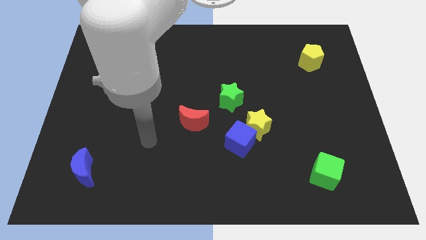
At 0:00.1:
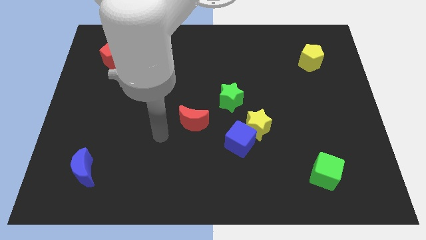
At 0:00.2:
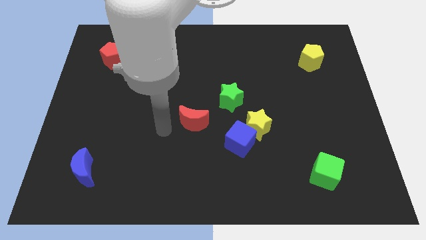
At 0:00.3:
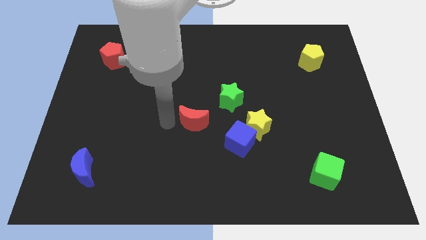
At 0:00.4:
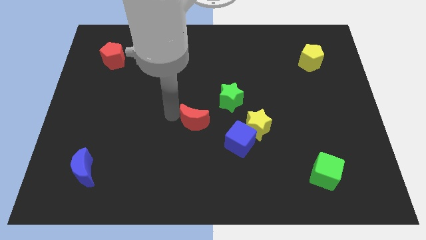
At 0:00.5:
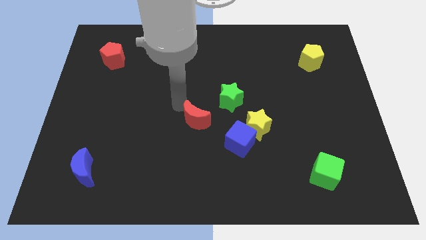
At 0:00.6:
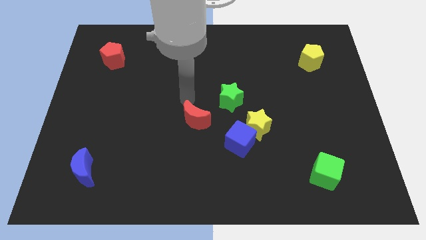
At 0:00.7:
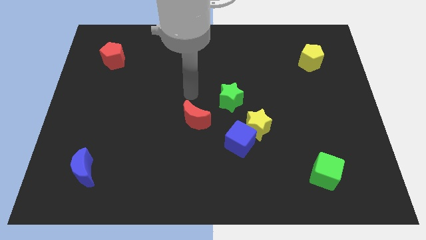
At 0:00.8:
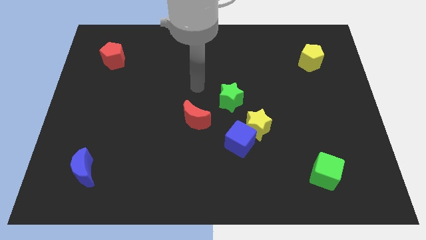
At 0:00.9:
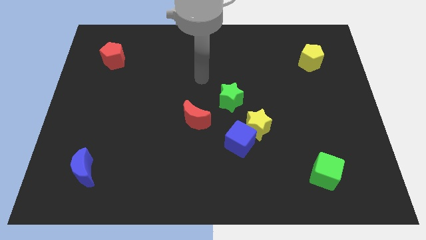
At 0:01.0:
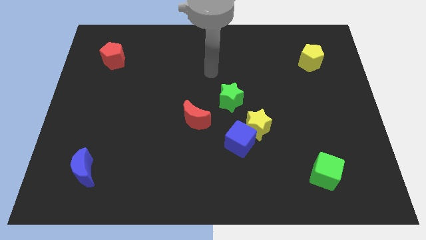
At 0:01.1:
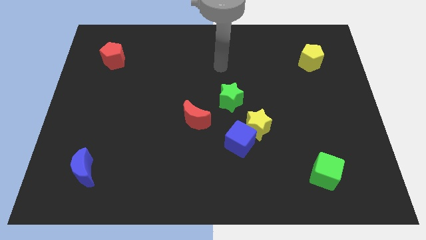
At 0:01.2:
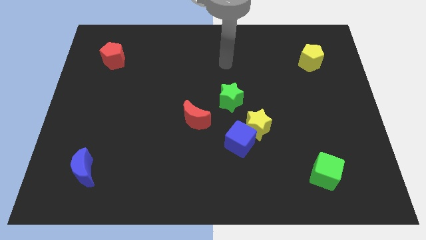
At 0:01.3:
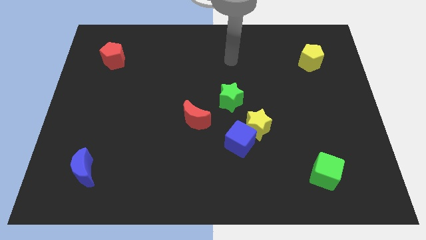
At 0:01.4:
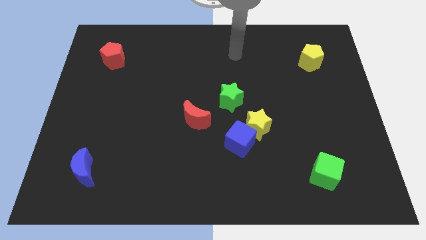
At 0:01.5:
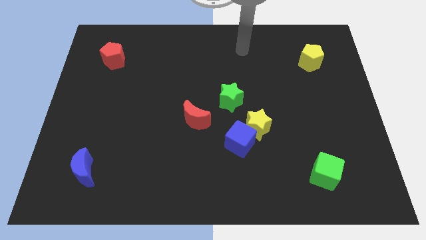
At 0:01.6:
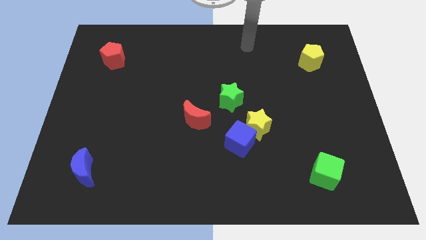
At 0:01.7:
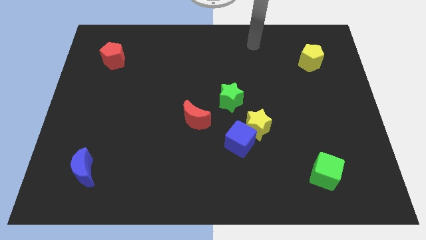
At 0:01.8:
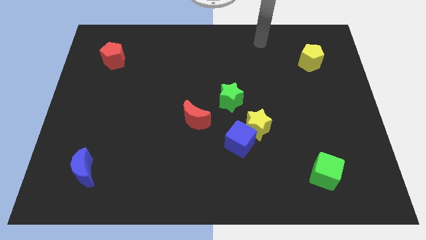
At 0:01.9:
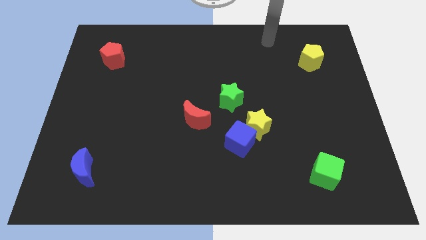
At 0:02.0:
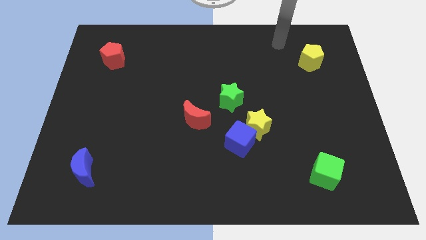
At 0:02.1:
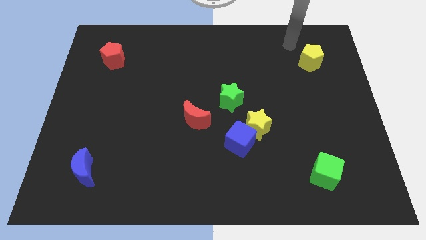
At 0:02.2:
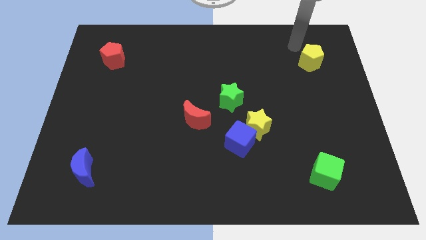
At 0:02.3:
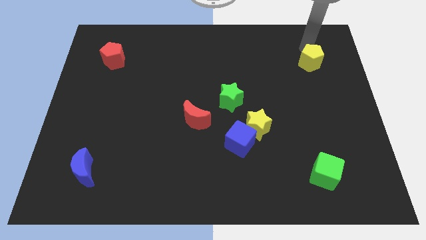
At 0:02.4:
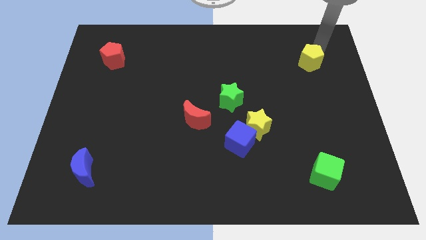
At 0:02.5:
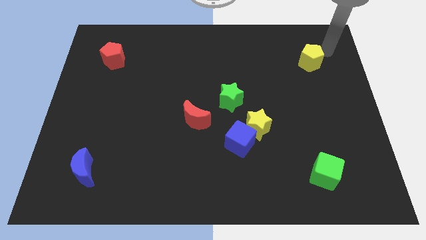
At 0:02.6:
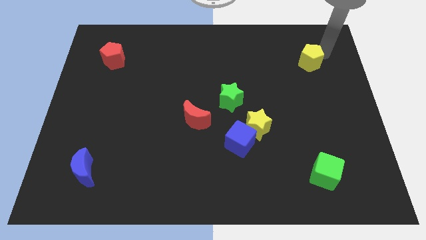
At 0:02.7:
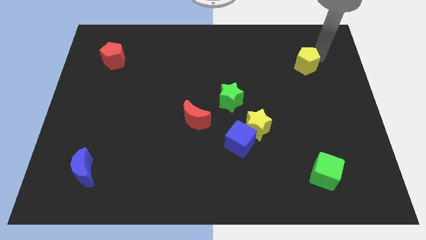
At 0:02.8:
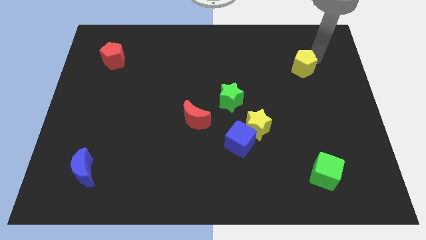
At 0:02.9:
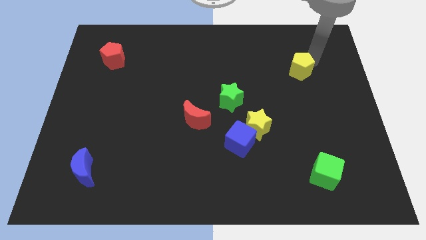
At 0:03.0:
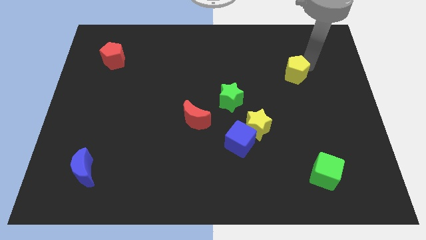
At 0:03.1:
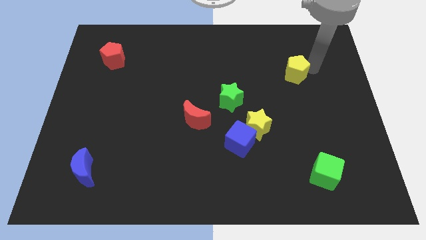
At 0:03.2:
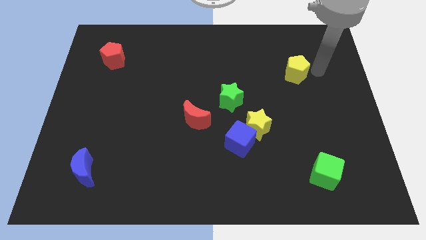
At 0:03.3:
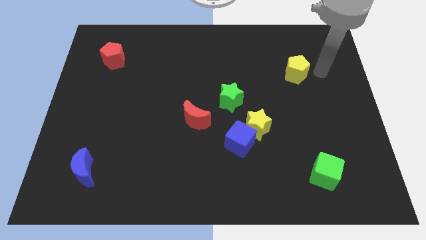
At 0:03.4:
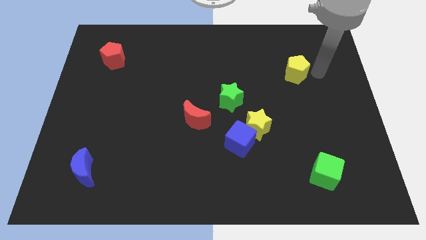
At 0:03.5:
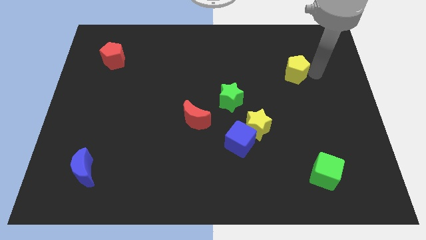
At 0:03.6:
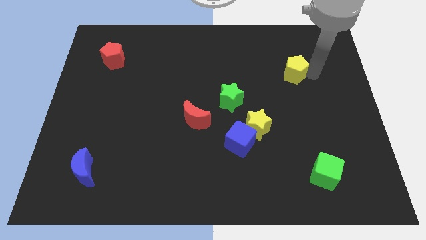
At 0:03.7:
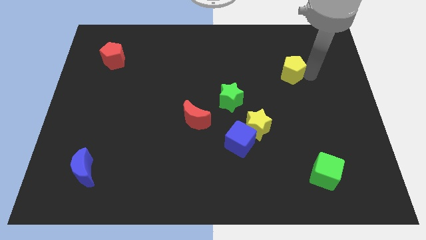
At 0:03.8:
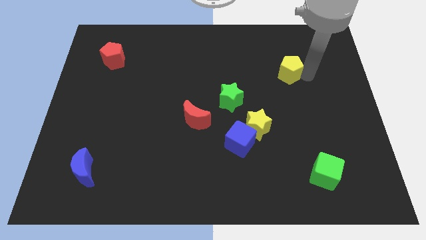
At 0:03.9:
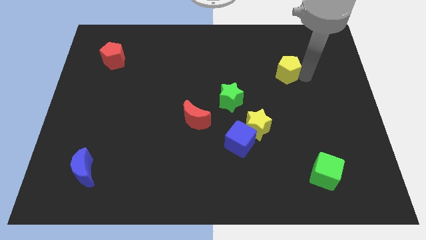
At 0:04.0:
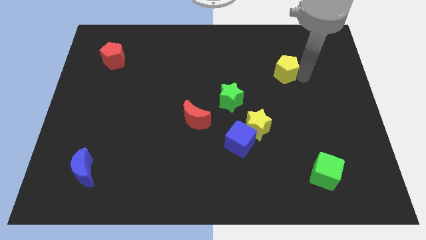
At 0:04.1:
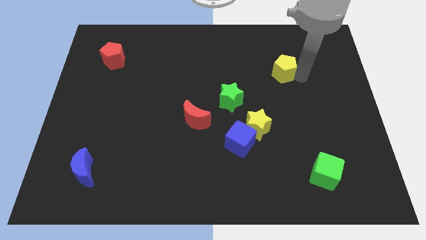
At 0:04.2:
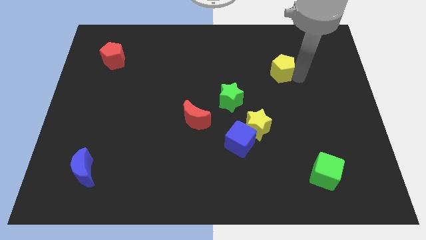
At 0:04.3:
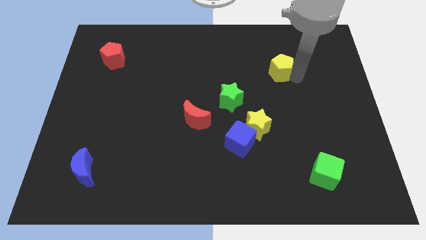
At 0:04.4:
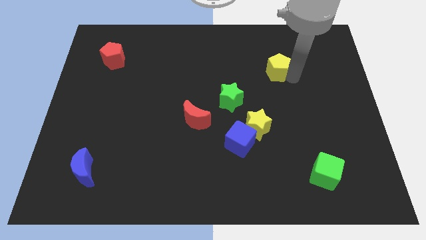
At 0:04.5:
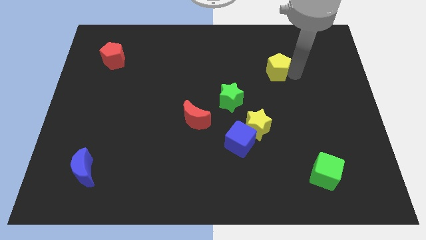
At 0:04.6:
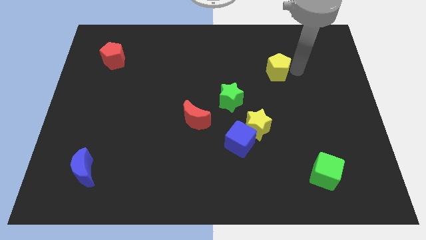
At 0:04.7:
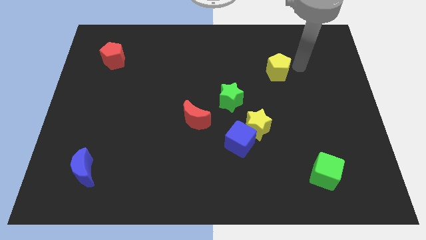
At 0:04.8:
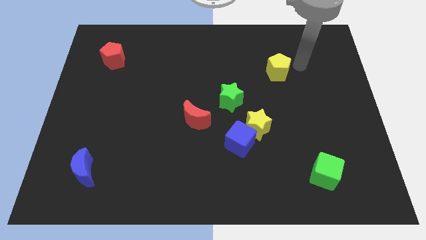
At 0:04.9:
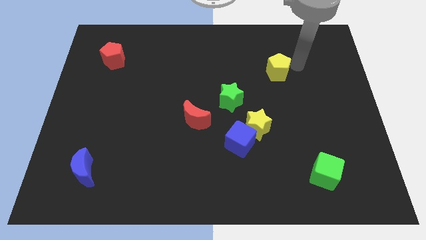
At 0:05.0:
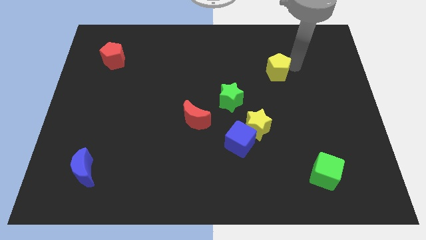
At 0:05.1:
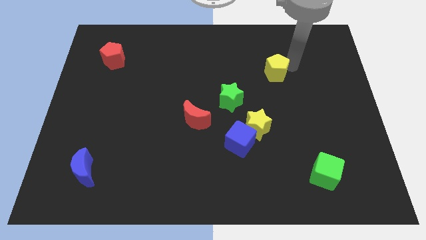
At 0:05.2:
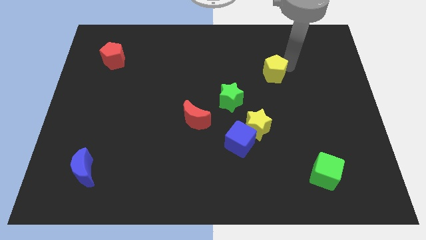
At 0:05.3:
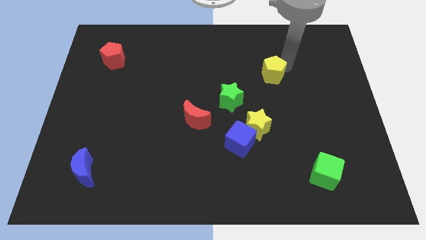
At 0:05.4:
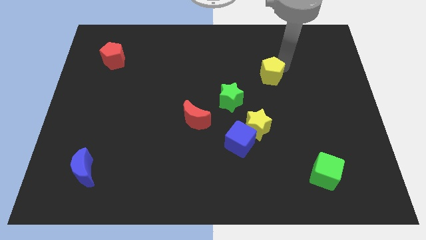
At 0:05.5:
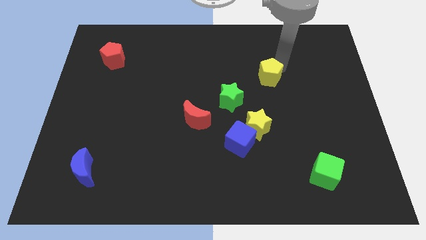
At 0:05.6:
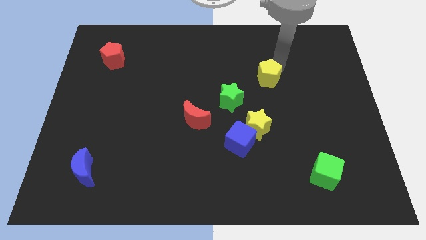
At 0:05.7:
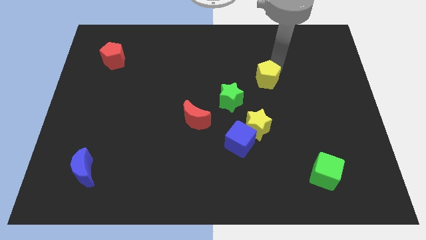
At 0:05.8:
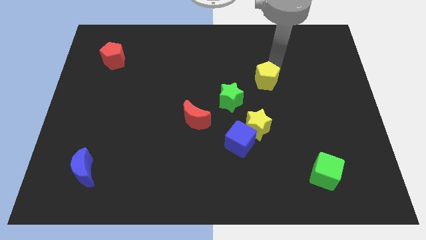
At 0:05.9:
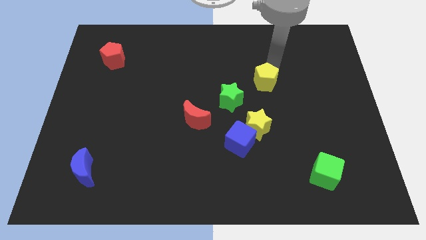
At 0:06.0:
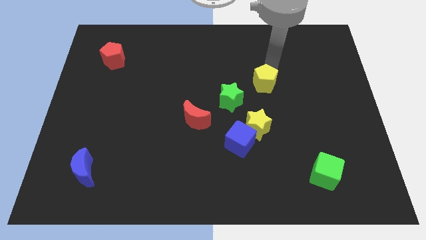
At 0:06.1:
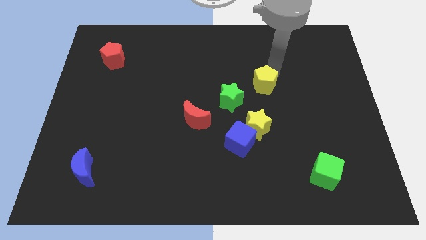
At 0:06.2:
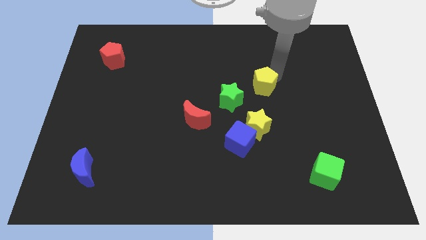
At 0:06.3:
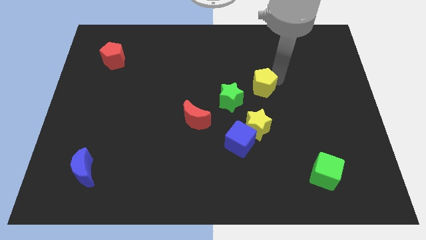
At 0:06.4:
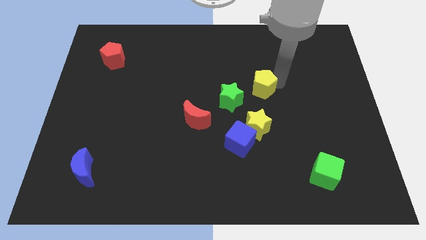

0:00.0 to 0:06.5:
slide the yellow pentagon to the center of the board

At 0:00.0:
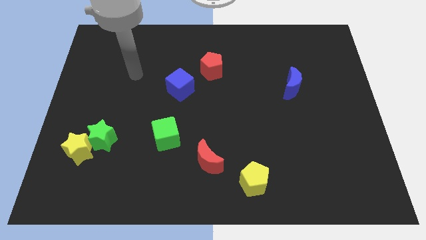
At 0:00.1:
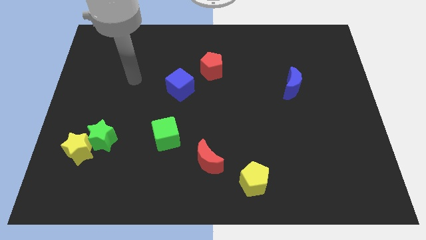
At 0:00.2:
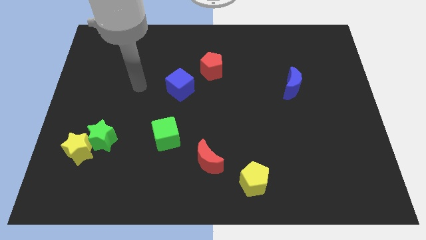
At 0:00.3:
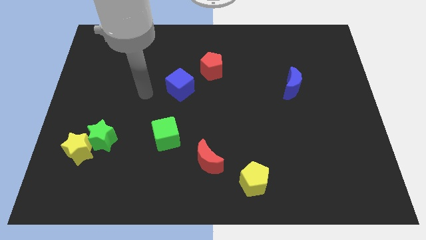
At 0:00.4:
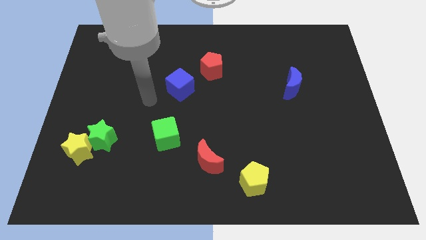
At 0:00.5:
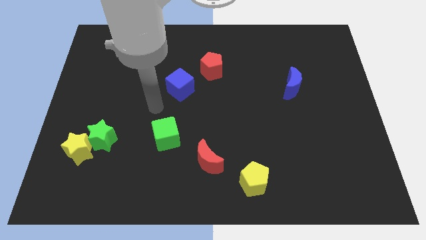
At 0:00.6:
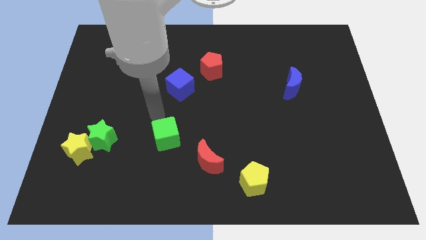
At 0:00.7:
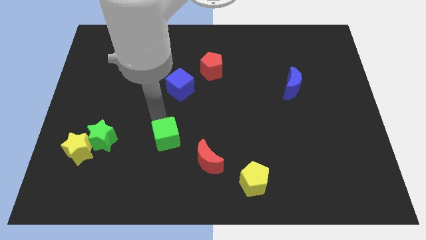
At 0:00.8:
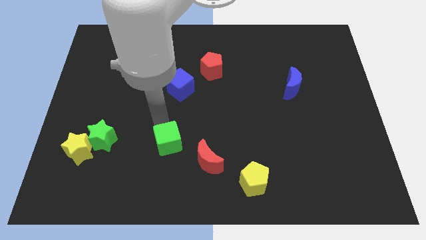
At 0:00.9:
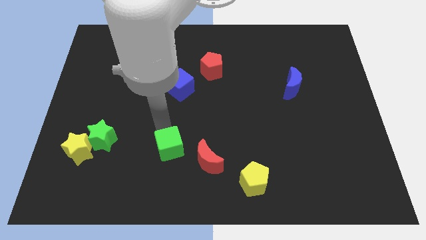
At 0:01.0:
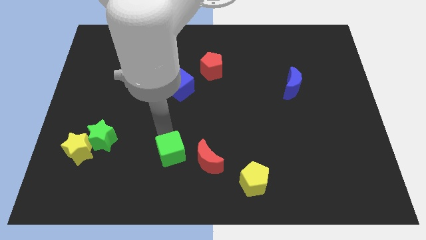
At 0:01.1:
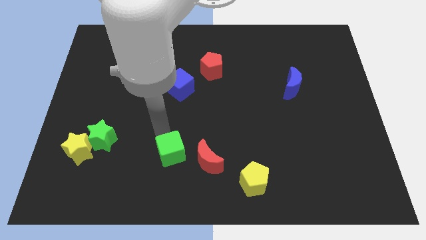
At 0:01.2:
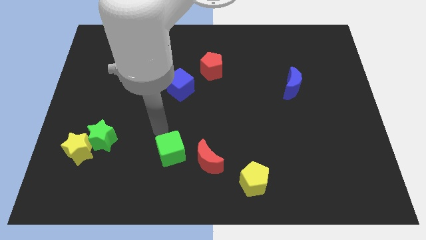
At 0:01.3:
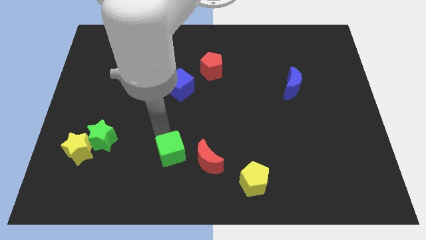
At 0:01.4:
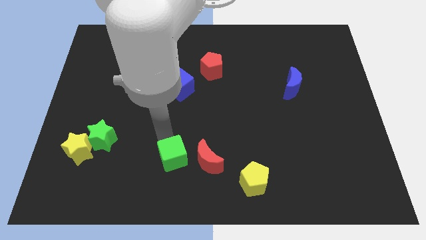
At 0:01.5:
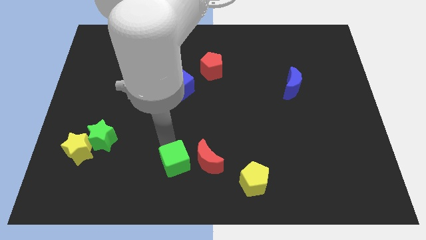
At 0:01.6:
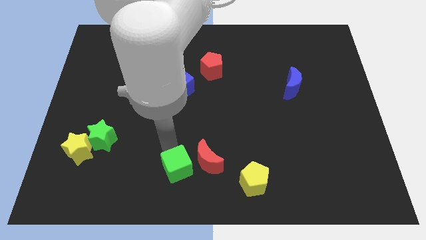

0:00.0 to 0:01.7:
push the green cube to the bottom
